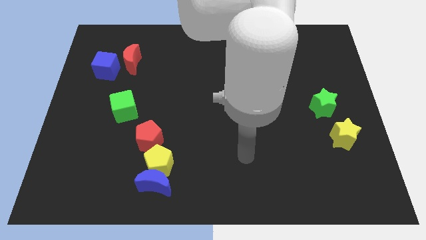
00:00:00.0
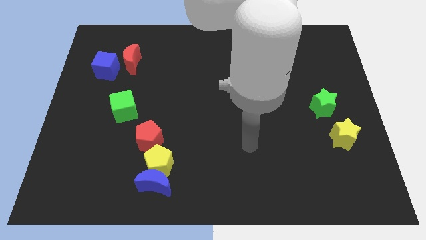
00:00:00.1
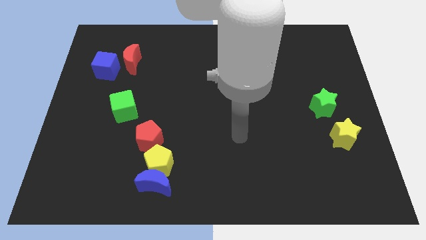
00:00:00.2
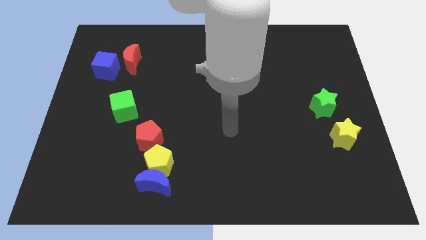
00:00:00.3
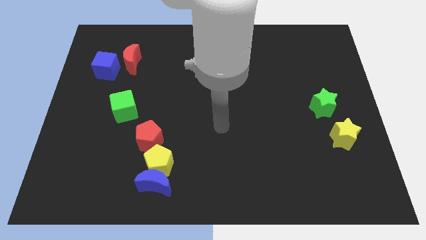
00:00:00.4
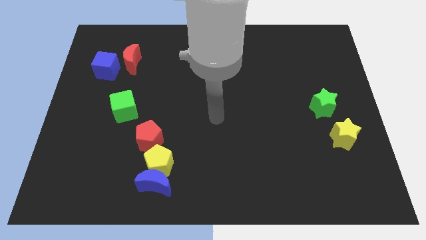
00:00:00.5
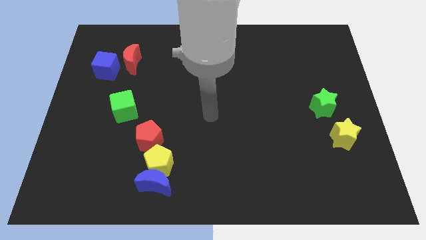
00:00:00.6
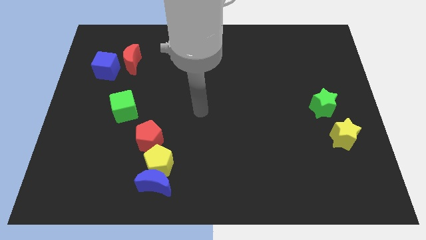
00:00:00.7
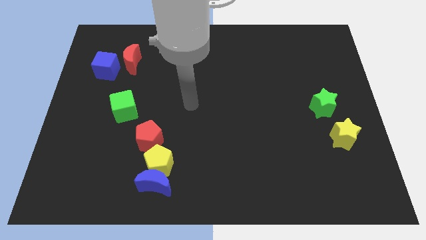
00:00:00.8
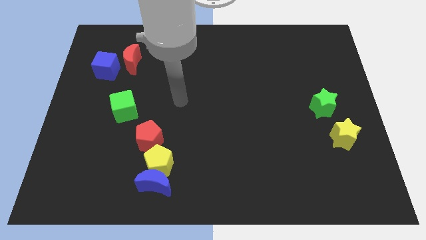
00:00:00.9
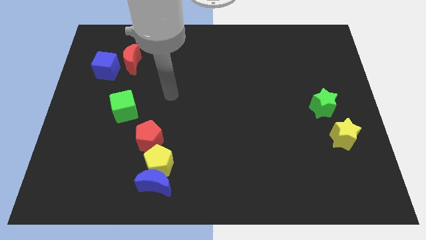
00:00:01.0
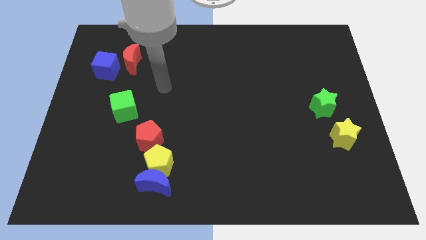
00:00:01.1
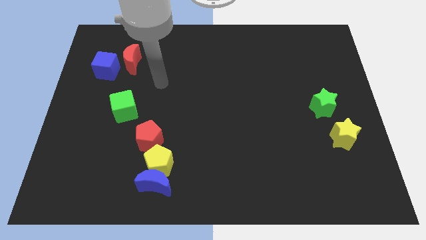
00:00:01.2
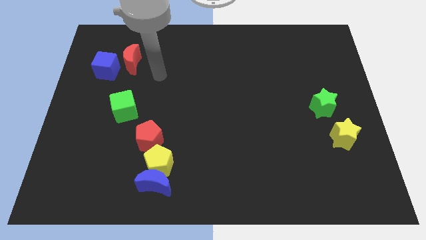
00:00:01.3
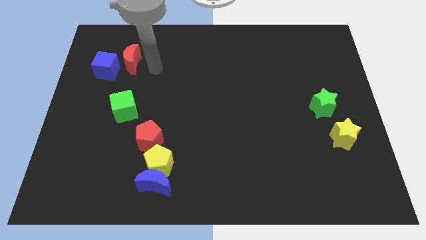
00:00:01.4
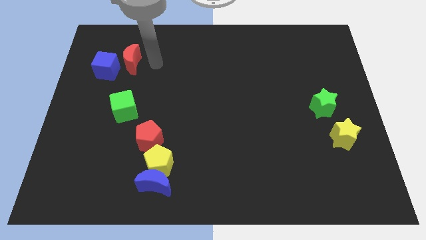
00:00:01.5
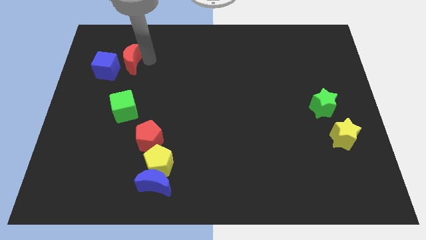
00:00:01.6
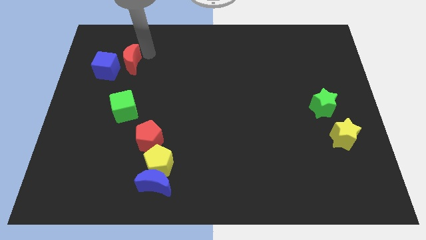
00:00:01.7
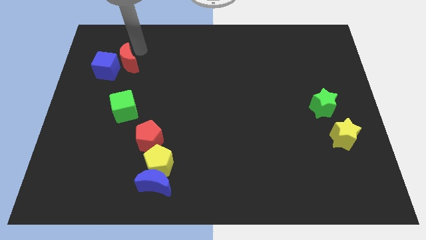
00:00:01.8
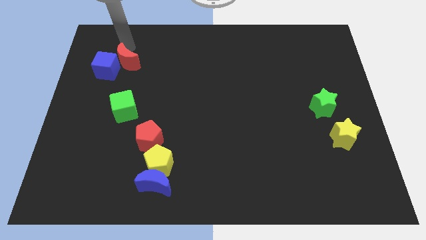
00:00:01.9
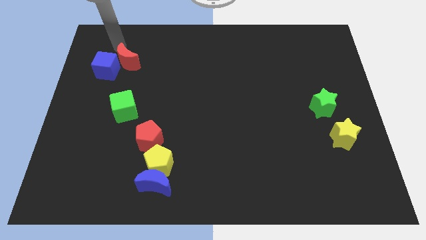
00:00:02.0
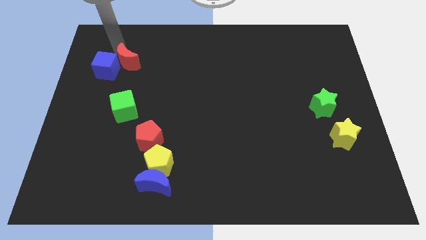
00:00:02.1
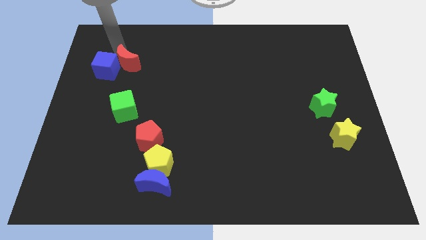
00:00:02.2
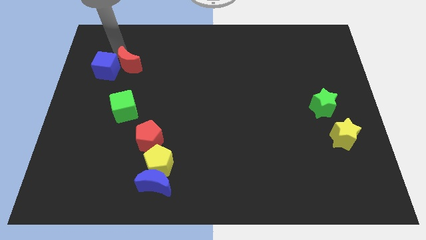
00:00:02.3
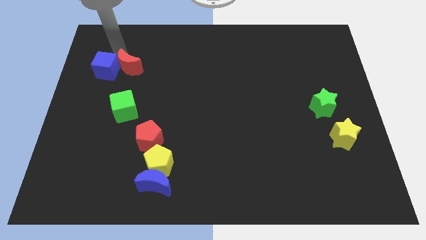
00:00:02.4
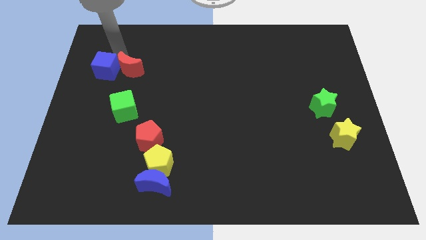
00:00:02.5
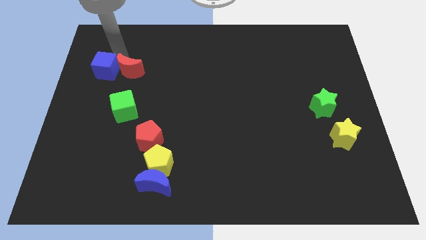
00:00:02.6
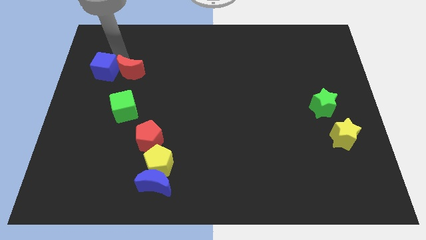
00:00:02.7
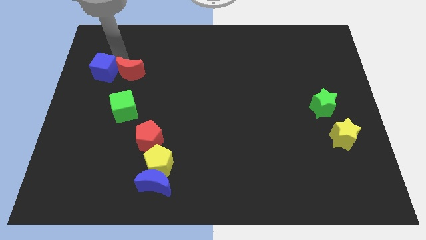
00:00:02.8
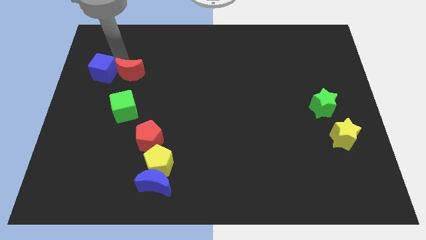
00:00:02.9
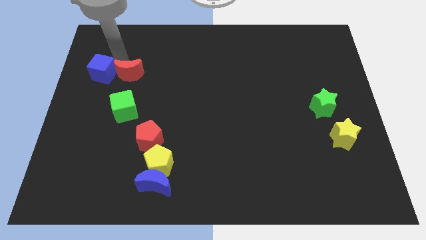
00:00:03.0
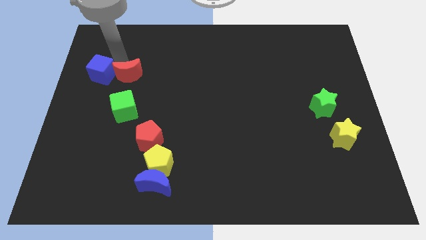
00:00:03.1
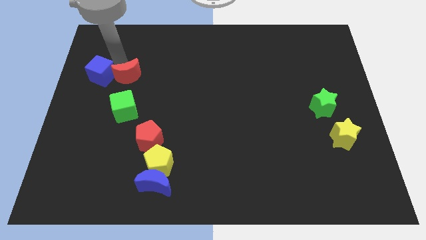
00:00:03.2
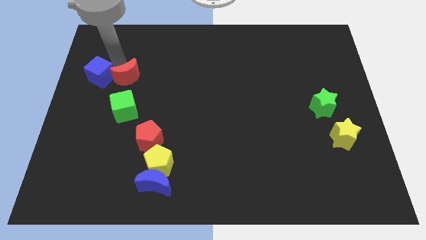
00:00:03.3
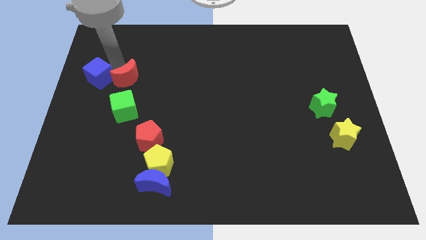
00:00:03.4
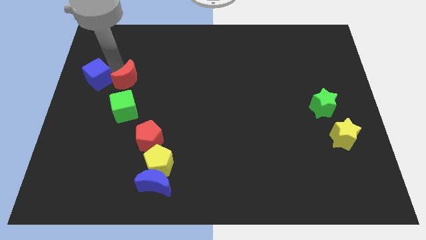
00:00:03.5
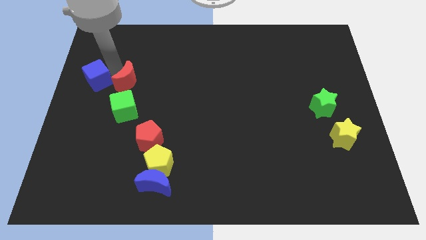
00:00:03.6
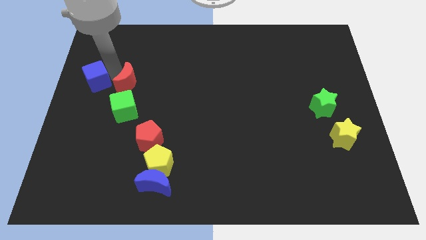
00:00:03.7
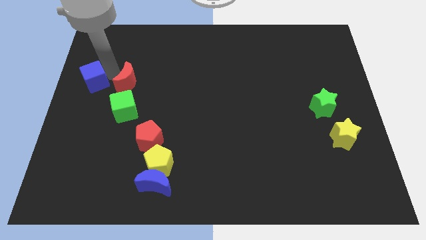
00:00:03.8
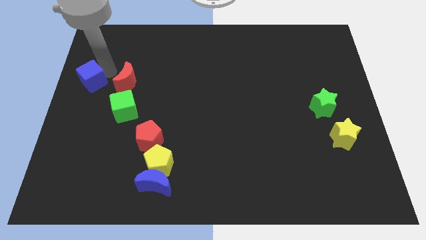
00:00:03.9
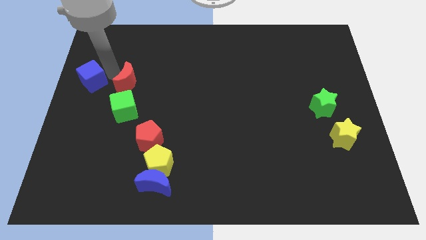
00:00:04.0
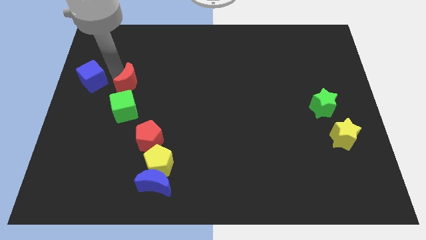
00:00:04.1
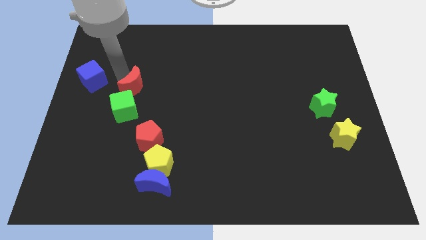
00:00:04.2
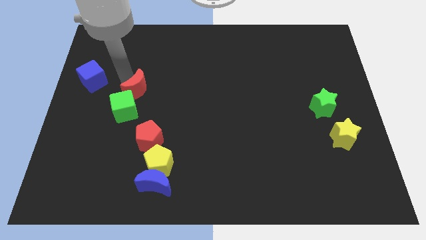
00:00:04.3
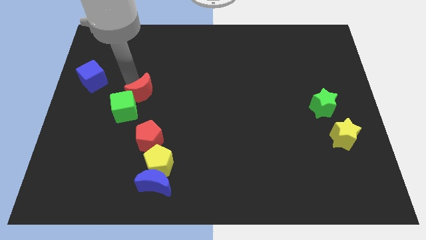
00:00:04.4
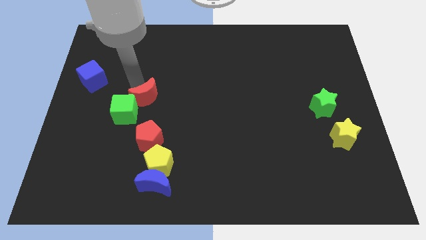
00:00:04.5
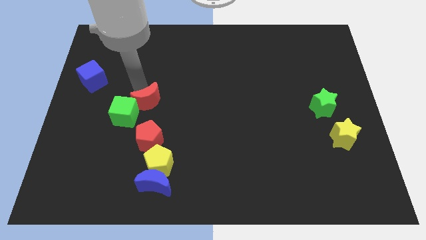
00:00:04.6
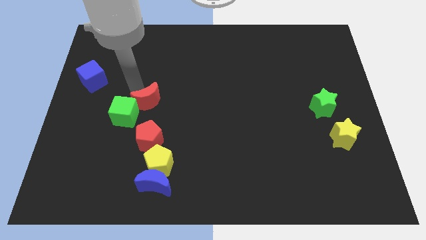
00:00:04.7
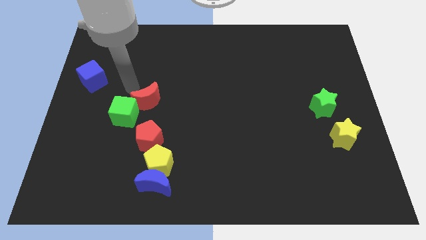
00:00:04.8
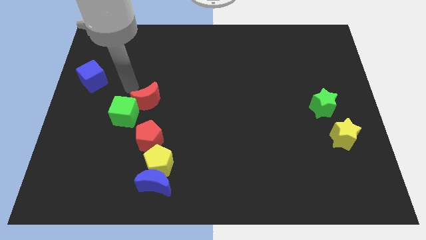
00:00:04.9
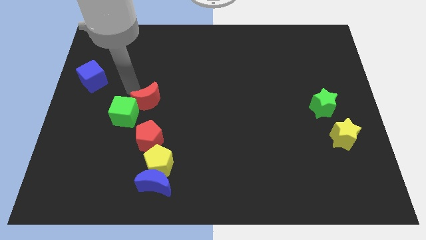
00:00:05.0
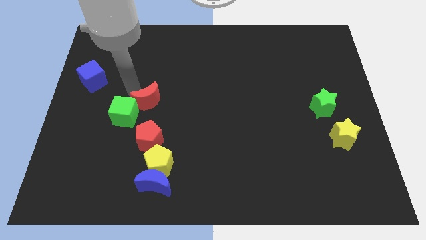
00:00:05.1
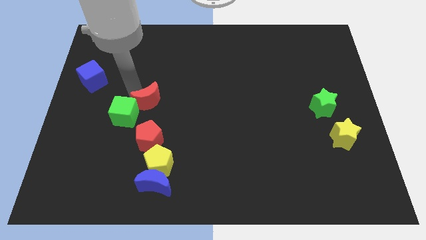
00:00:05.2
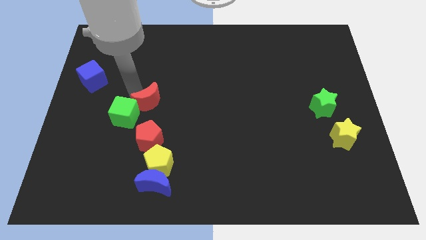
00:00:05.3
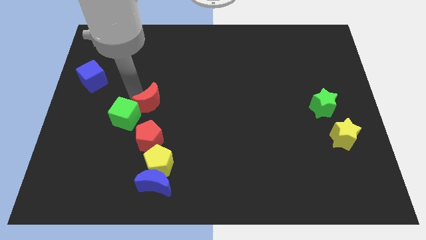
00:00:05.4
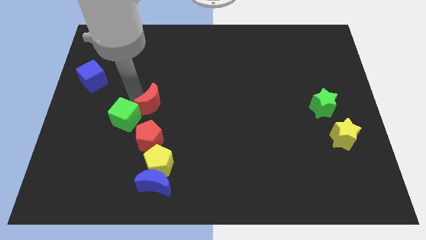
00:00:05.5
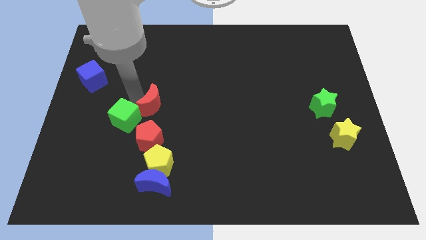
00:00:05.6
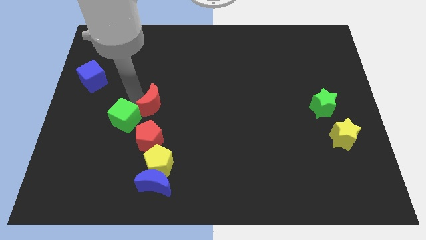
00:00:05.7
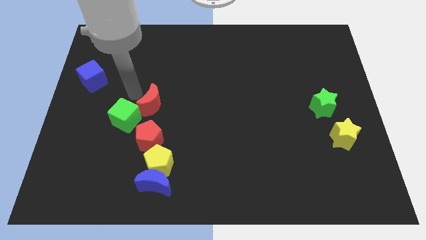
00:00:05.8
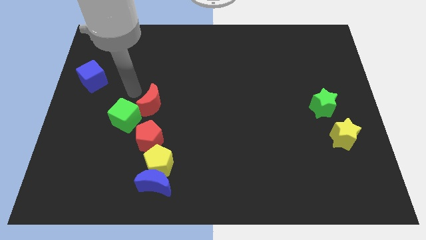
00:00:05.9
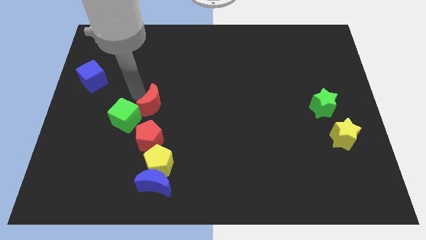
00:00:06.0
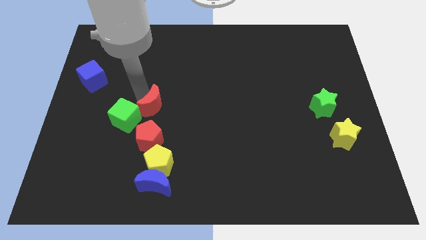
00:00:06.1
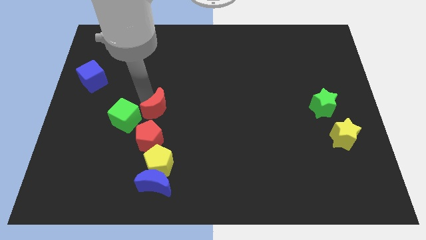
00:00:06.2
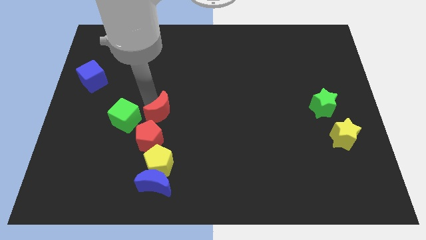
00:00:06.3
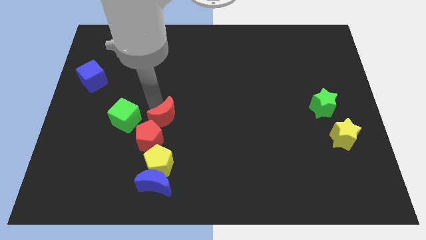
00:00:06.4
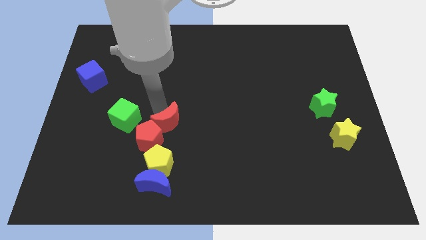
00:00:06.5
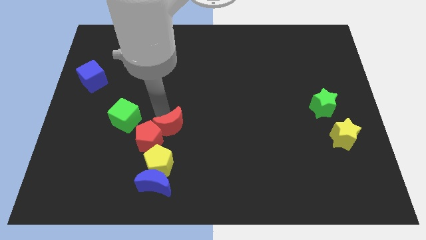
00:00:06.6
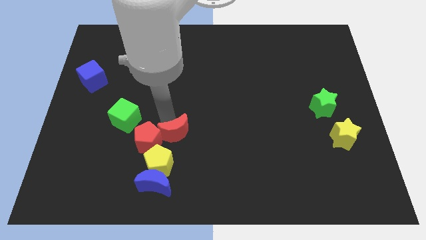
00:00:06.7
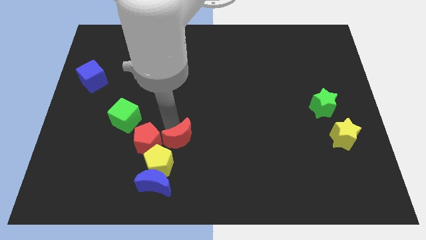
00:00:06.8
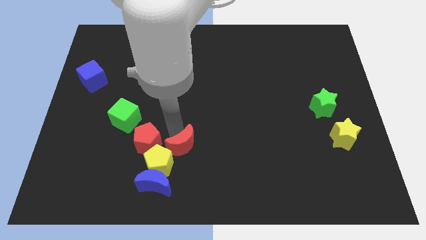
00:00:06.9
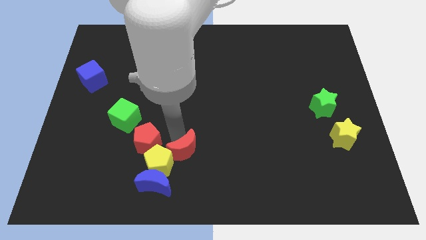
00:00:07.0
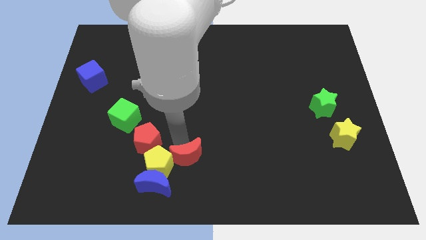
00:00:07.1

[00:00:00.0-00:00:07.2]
put the red moon to the bottom
